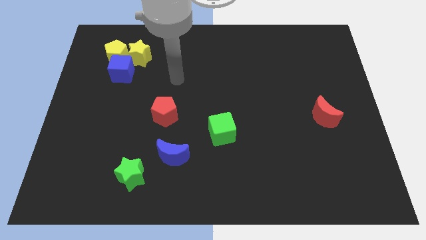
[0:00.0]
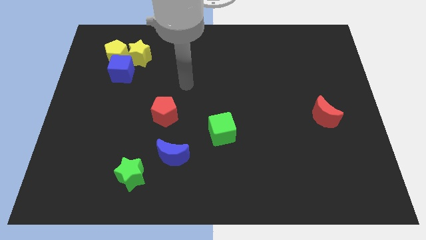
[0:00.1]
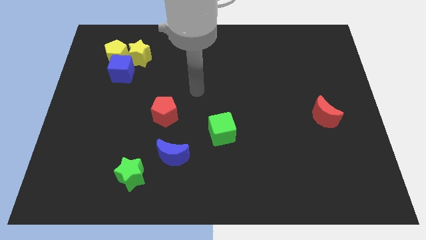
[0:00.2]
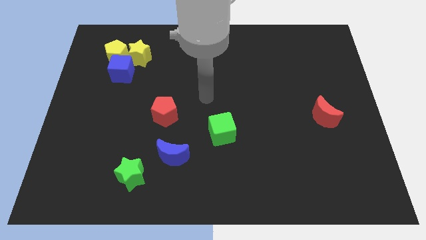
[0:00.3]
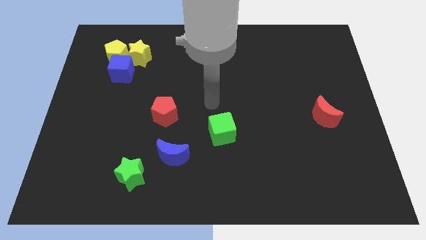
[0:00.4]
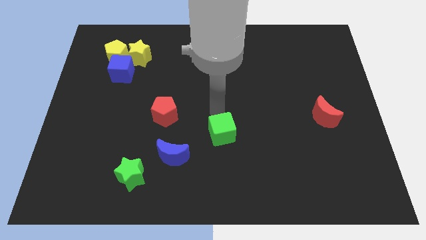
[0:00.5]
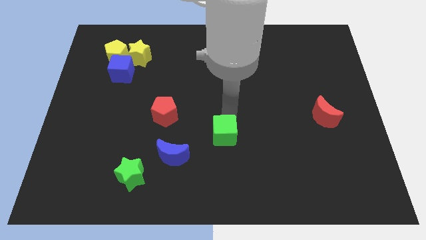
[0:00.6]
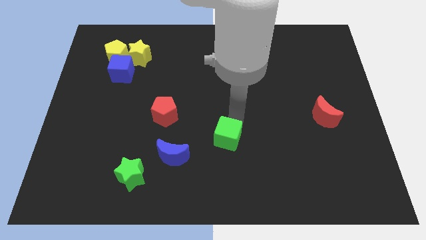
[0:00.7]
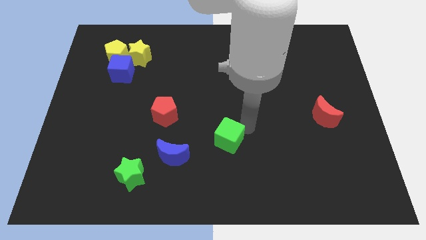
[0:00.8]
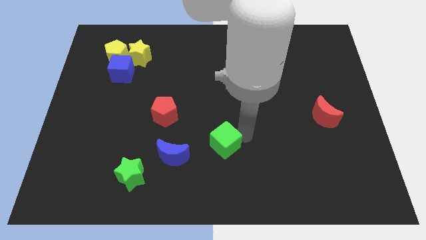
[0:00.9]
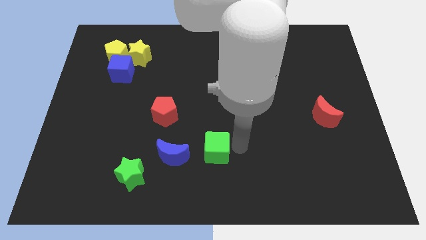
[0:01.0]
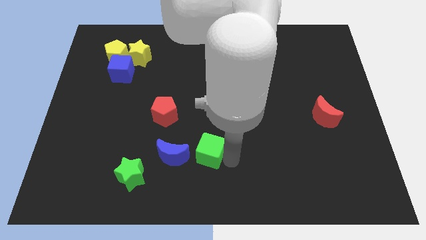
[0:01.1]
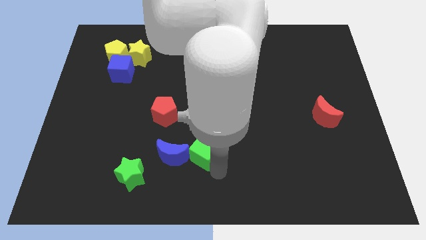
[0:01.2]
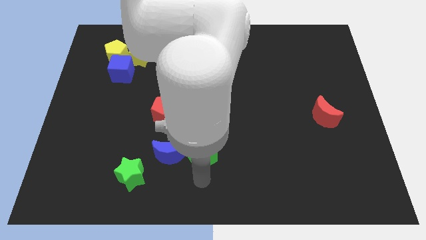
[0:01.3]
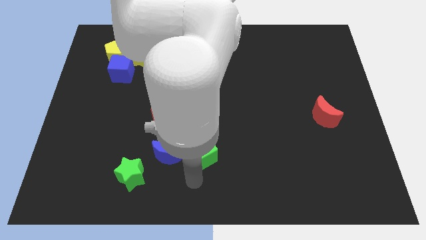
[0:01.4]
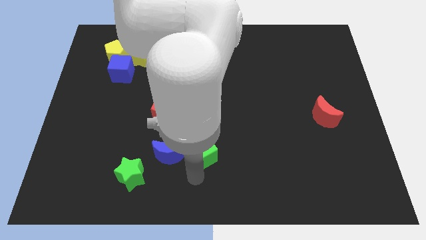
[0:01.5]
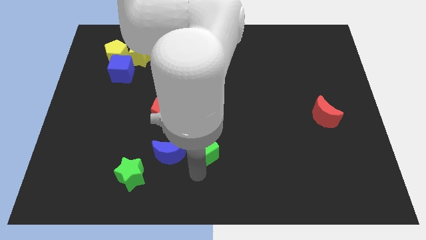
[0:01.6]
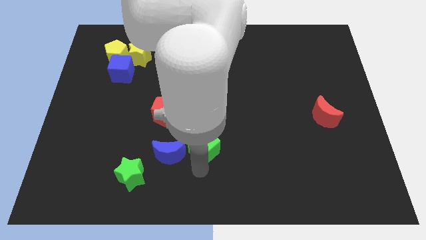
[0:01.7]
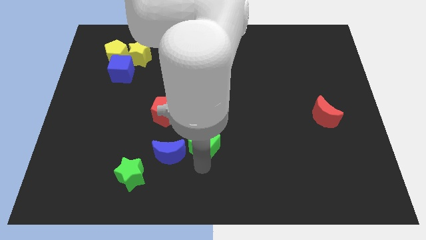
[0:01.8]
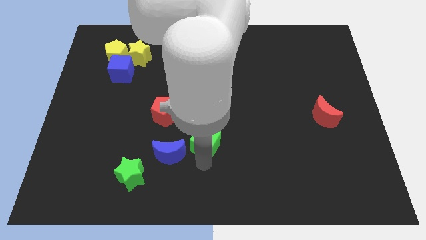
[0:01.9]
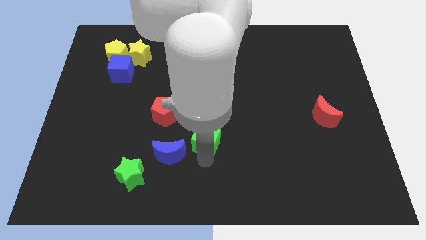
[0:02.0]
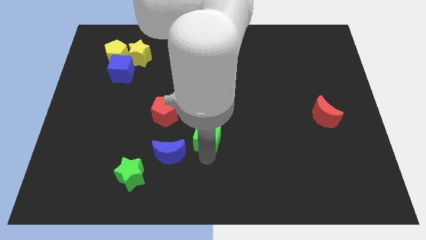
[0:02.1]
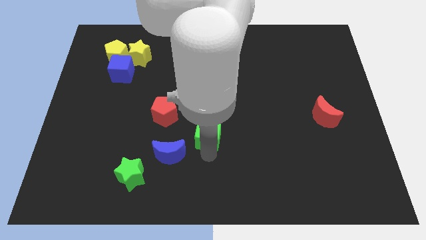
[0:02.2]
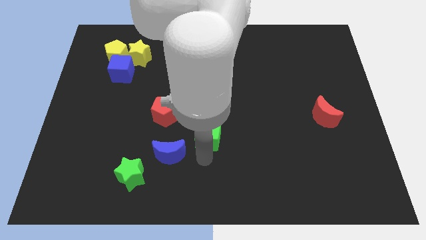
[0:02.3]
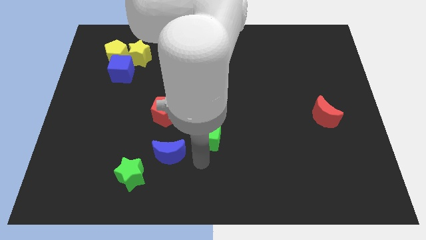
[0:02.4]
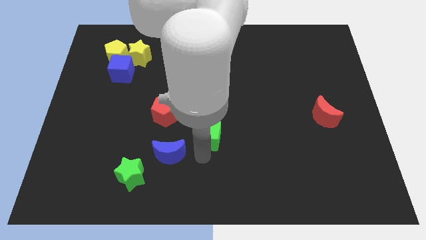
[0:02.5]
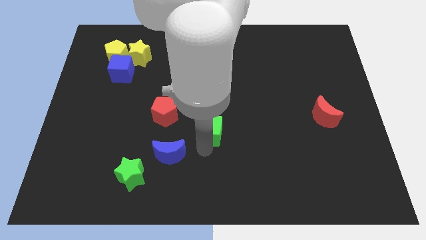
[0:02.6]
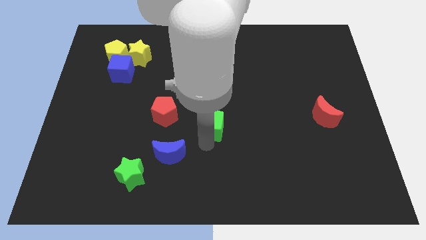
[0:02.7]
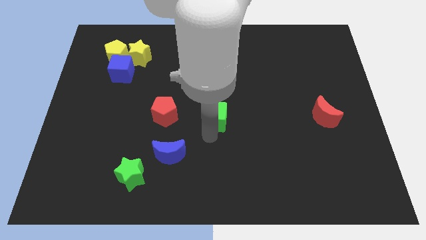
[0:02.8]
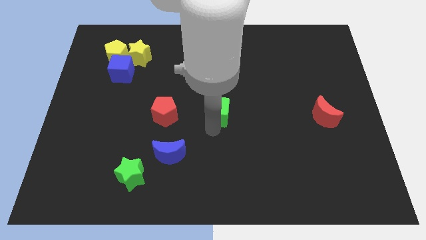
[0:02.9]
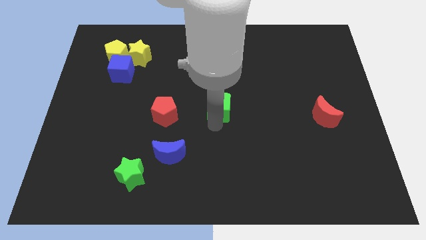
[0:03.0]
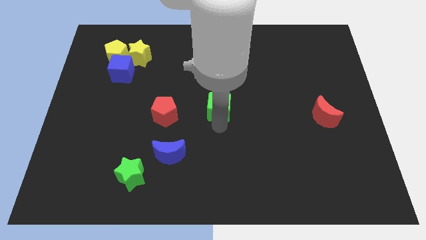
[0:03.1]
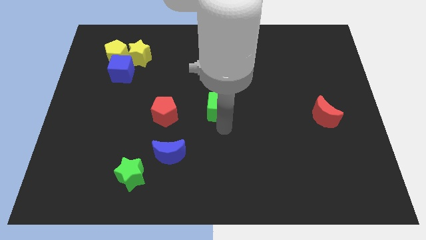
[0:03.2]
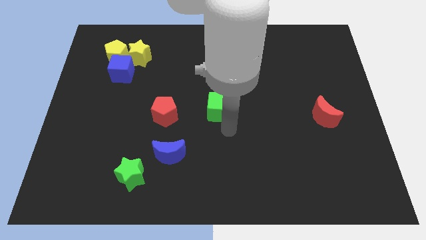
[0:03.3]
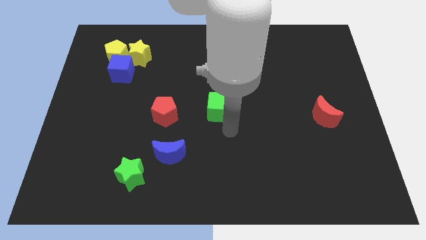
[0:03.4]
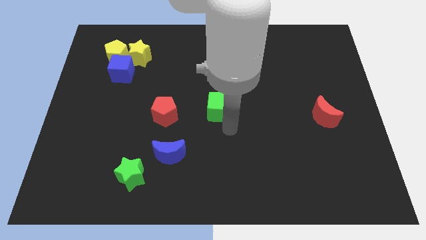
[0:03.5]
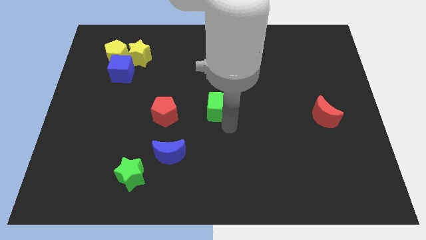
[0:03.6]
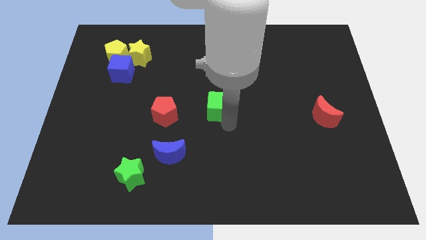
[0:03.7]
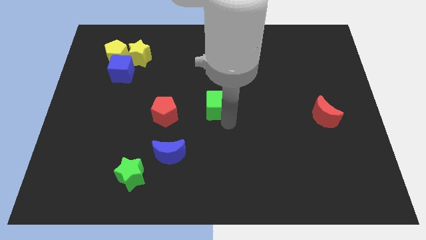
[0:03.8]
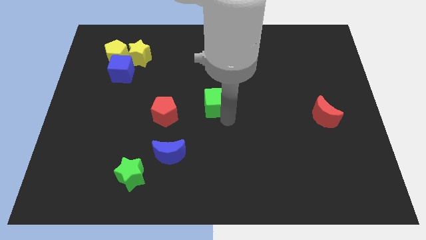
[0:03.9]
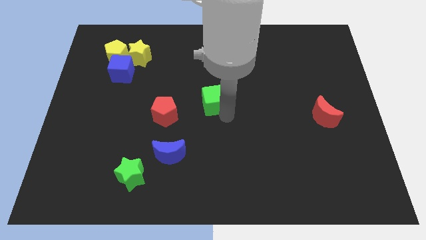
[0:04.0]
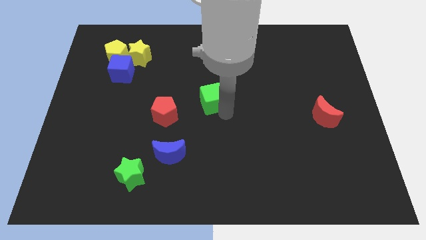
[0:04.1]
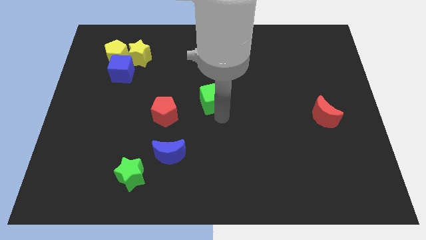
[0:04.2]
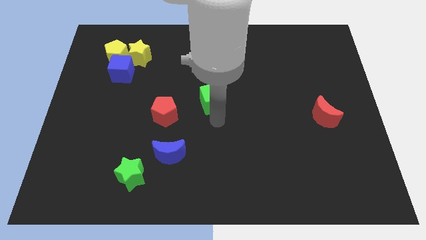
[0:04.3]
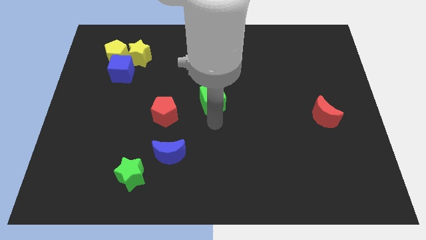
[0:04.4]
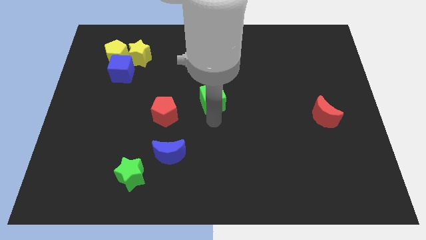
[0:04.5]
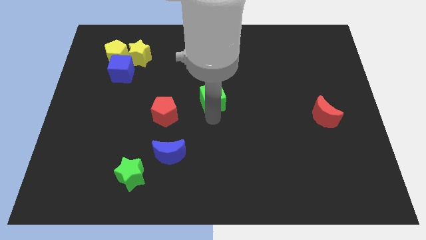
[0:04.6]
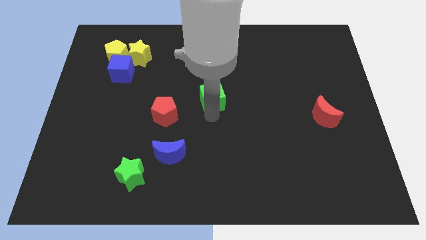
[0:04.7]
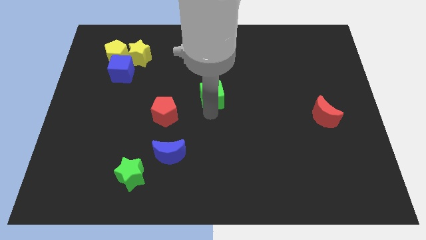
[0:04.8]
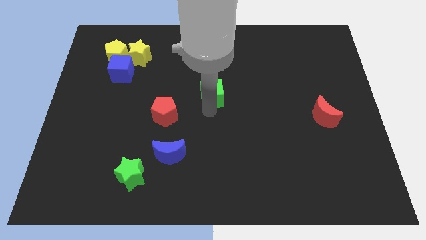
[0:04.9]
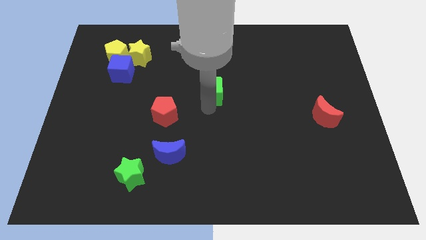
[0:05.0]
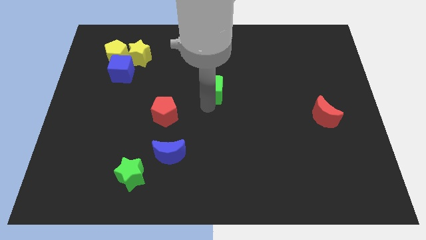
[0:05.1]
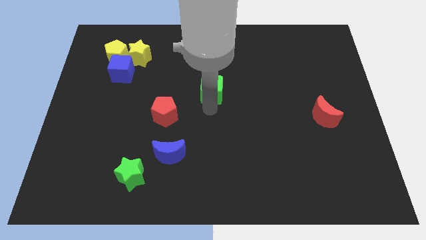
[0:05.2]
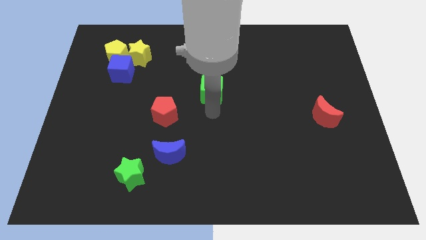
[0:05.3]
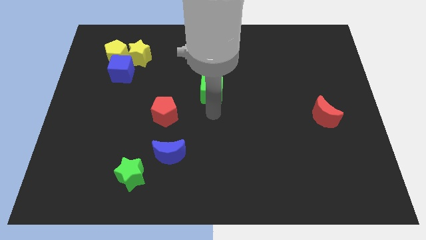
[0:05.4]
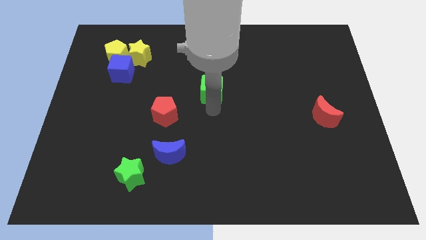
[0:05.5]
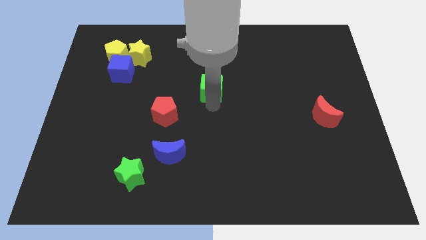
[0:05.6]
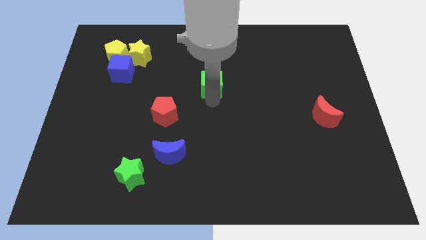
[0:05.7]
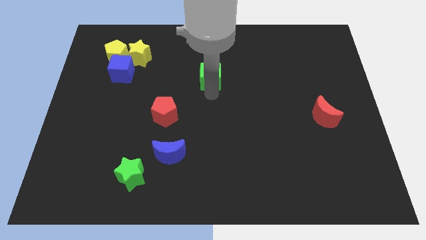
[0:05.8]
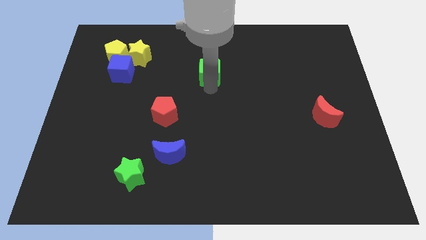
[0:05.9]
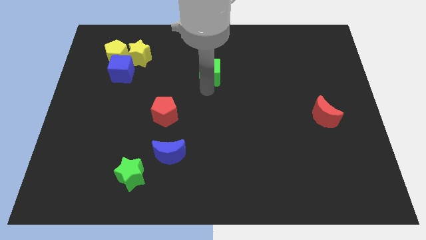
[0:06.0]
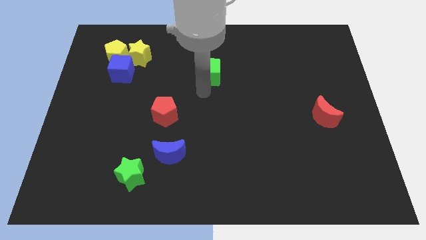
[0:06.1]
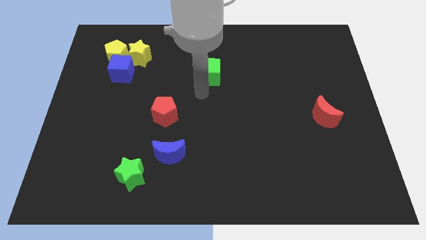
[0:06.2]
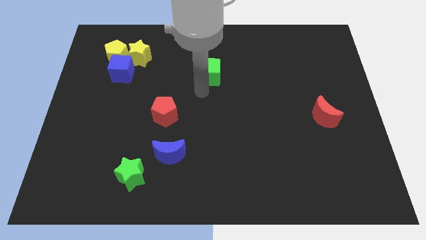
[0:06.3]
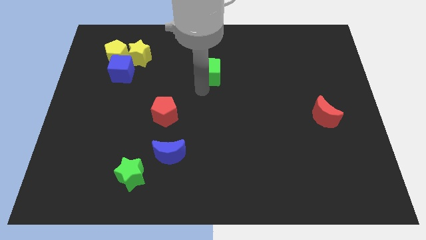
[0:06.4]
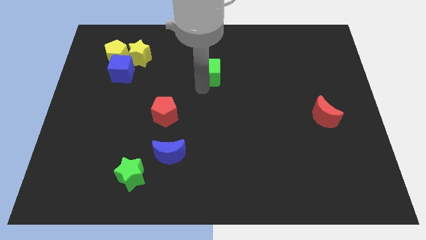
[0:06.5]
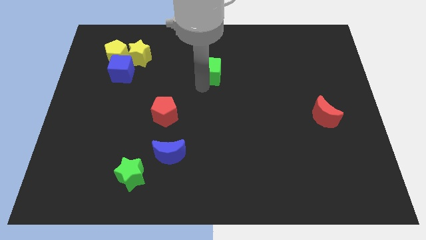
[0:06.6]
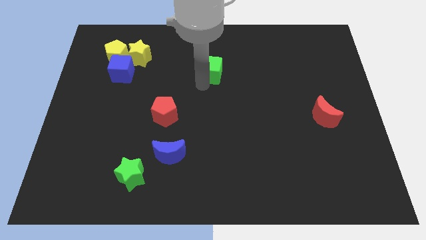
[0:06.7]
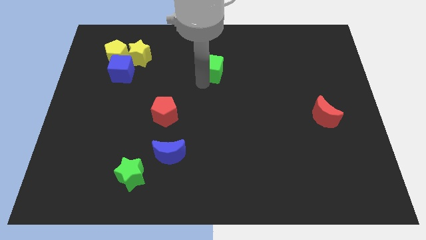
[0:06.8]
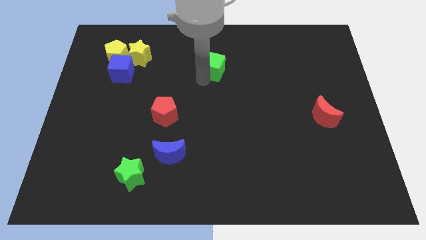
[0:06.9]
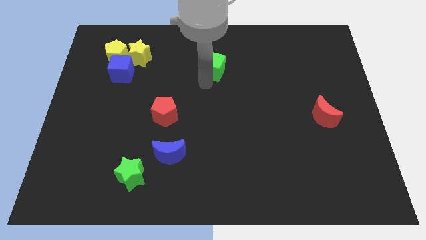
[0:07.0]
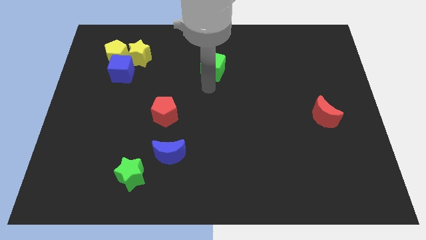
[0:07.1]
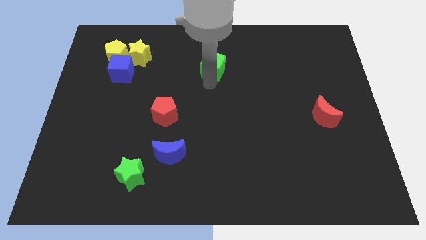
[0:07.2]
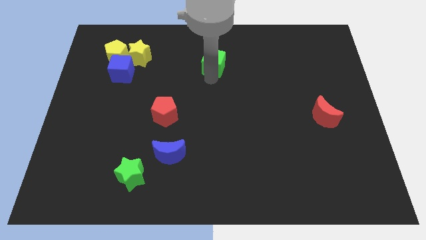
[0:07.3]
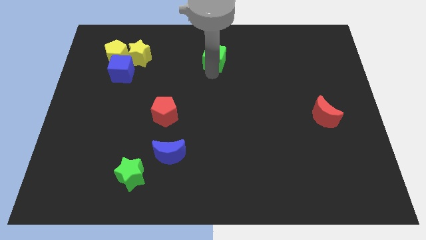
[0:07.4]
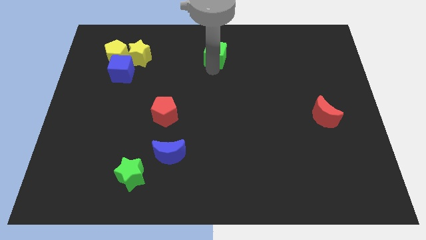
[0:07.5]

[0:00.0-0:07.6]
slide the green cube to the towards your base

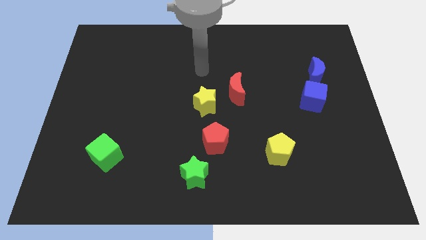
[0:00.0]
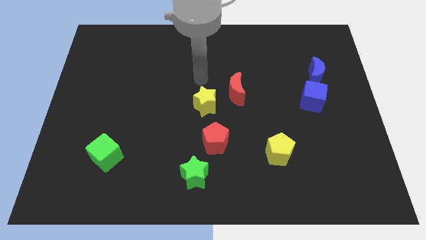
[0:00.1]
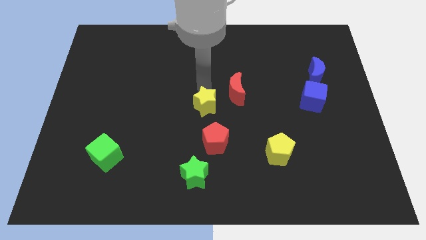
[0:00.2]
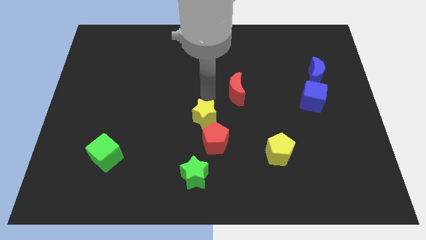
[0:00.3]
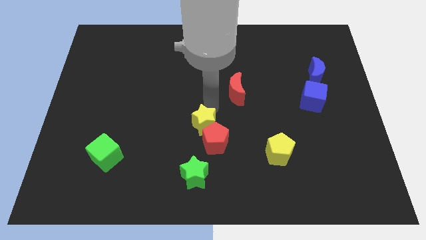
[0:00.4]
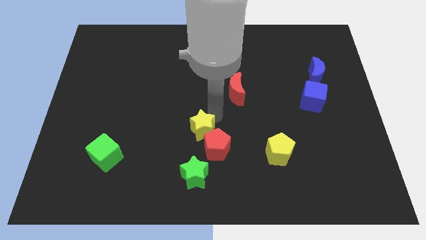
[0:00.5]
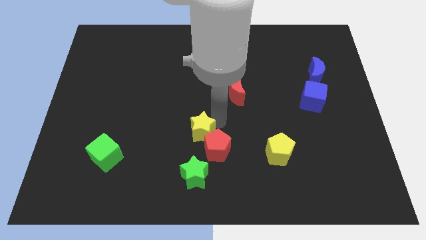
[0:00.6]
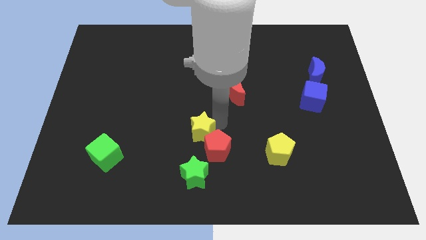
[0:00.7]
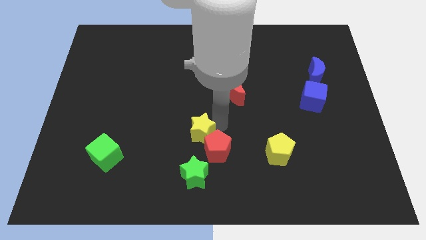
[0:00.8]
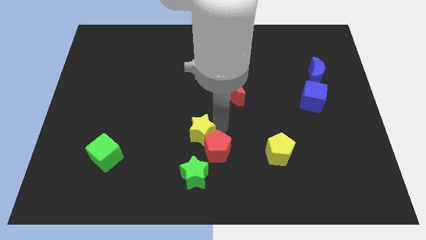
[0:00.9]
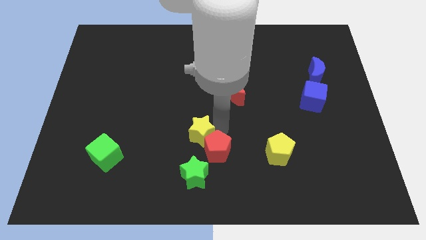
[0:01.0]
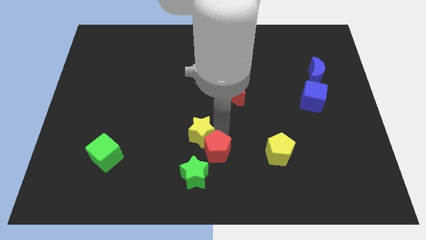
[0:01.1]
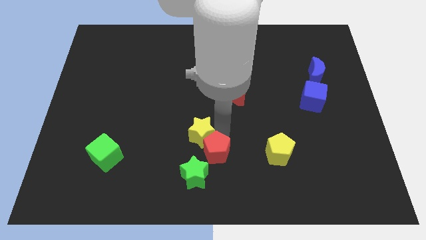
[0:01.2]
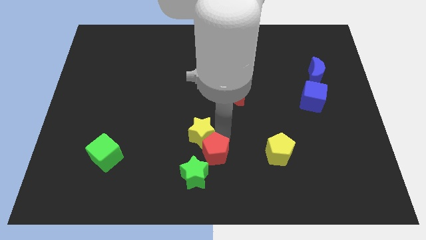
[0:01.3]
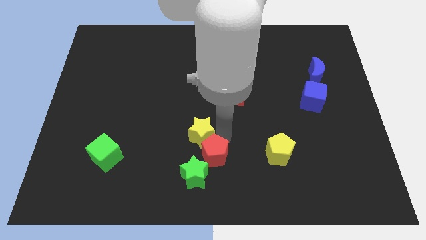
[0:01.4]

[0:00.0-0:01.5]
slide the red pentagon to the bottom side
